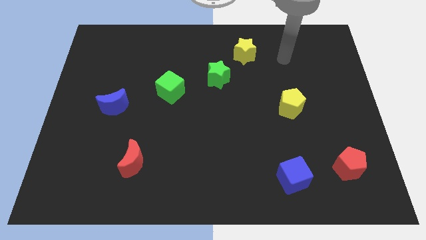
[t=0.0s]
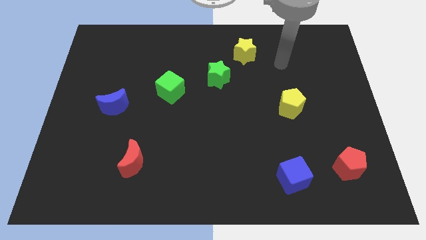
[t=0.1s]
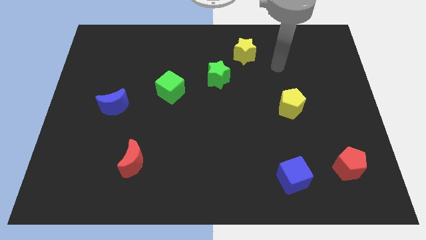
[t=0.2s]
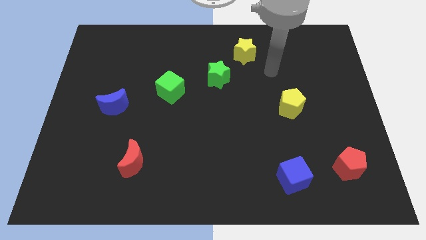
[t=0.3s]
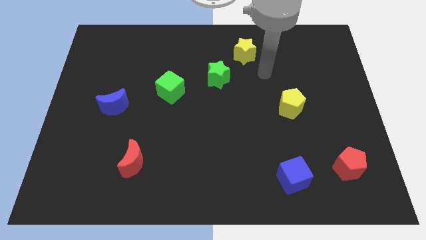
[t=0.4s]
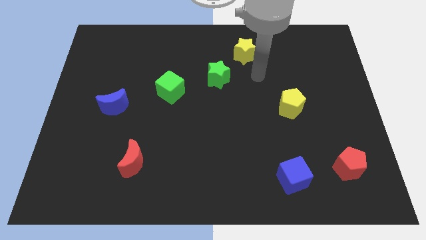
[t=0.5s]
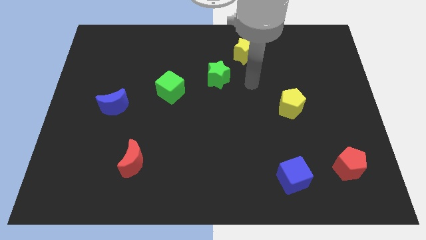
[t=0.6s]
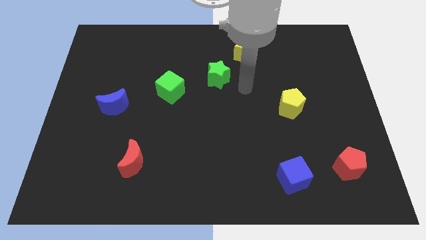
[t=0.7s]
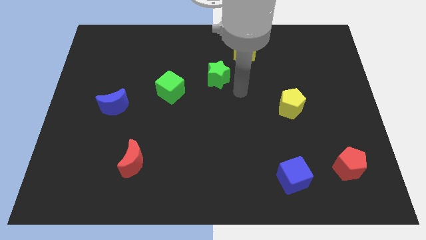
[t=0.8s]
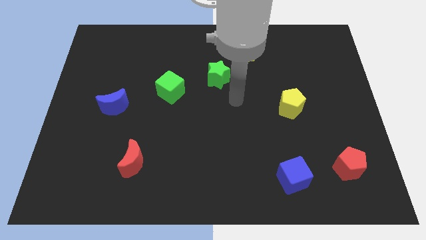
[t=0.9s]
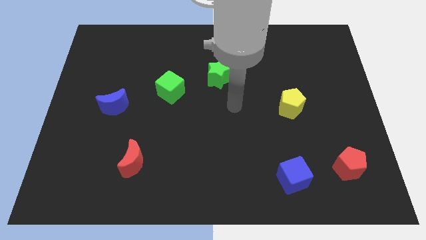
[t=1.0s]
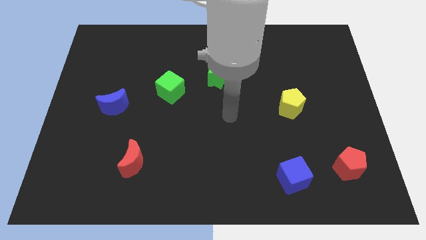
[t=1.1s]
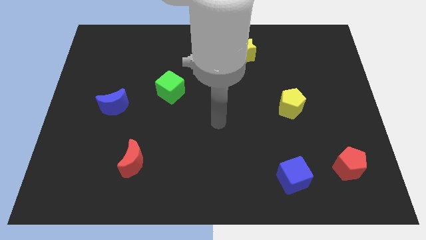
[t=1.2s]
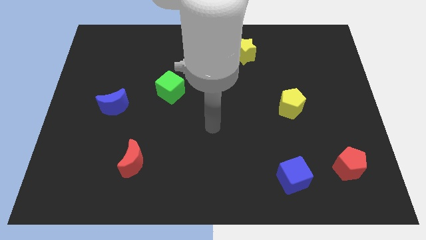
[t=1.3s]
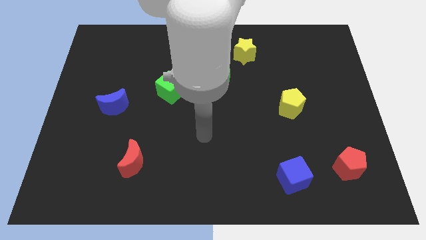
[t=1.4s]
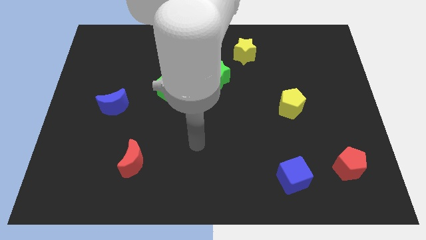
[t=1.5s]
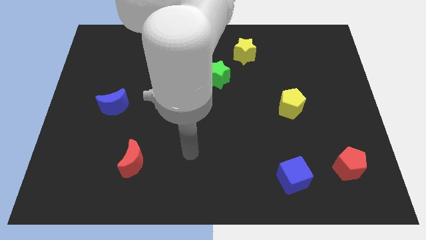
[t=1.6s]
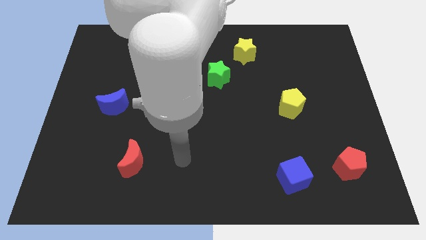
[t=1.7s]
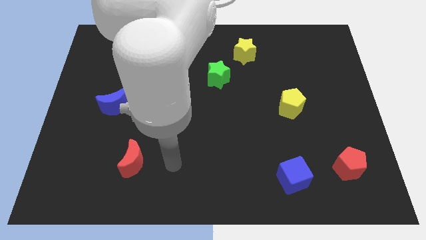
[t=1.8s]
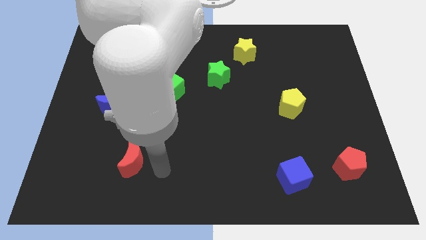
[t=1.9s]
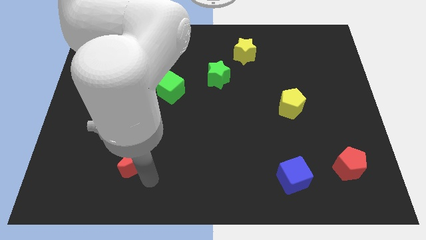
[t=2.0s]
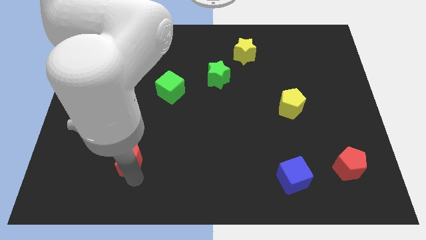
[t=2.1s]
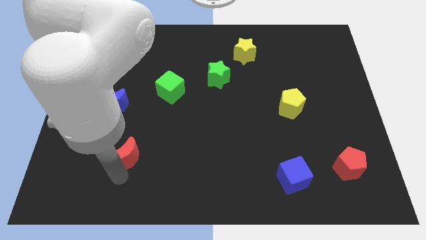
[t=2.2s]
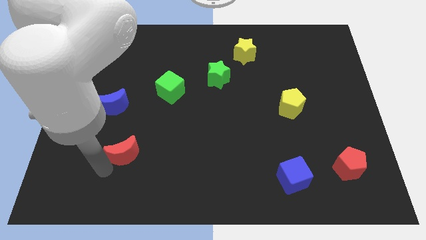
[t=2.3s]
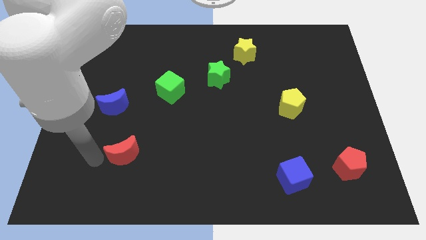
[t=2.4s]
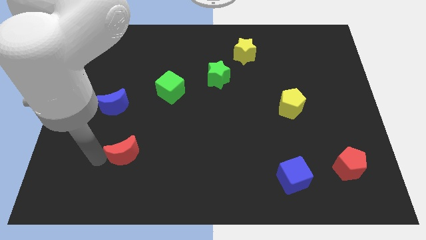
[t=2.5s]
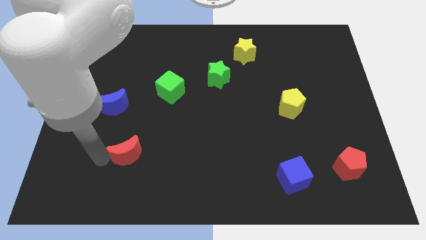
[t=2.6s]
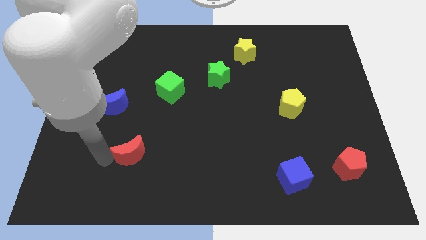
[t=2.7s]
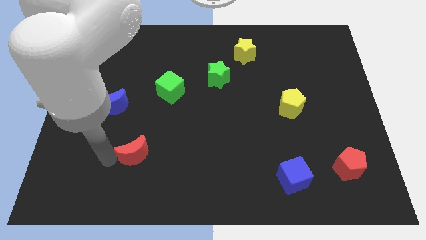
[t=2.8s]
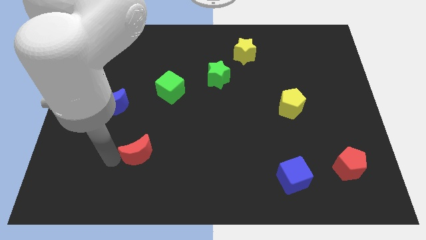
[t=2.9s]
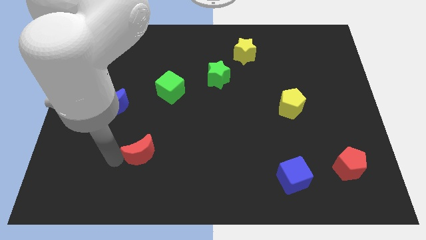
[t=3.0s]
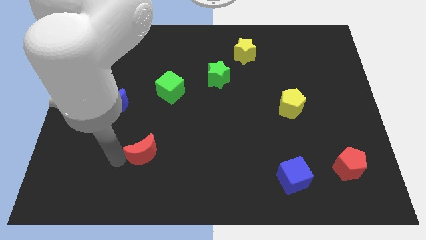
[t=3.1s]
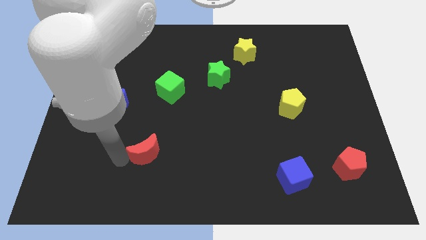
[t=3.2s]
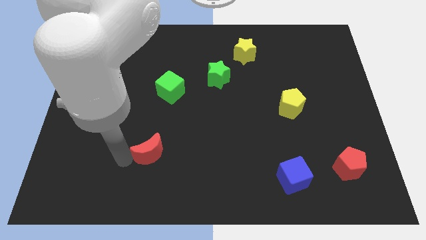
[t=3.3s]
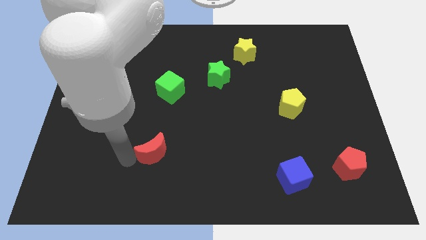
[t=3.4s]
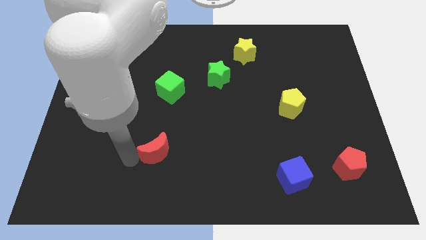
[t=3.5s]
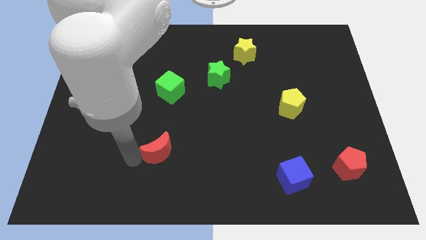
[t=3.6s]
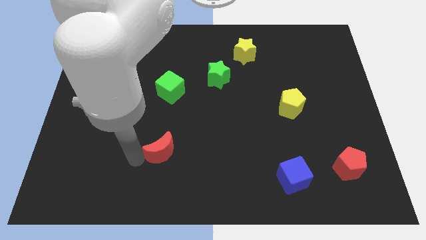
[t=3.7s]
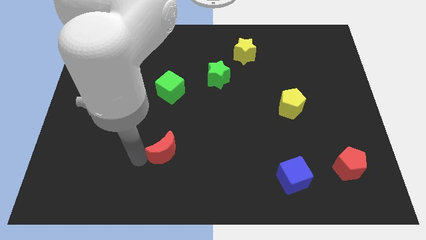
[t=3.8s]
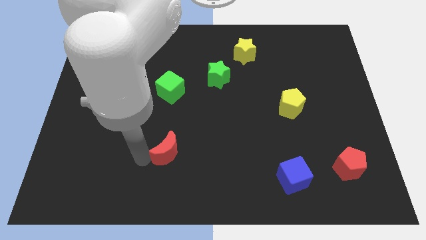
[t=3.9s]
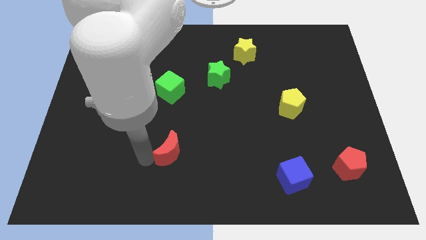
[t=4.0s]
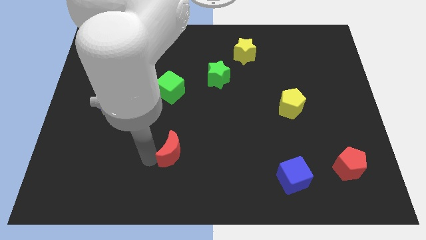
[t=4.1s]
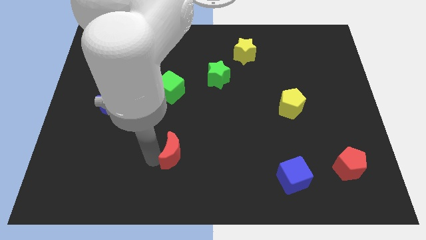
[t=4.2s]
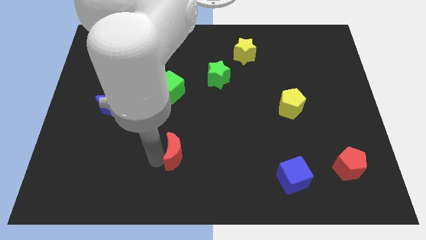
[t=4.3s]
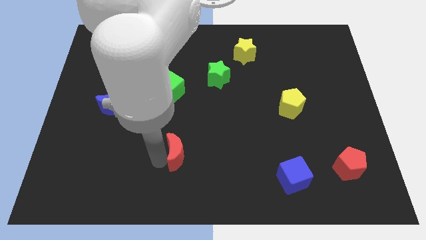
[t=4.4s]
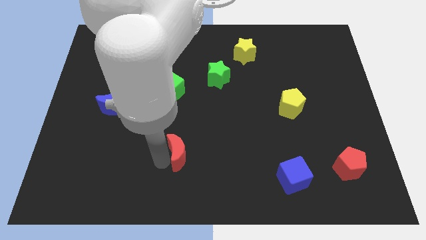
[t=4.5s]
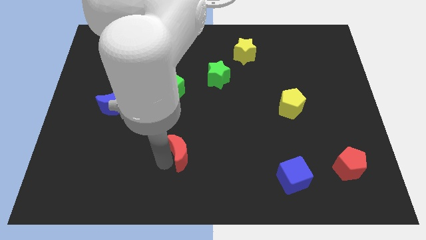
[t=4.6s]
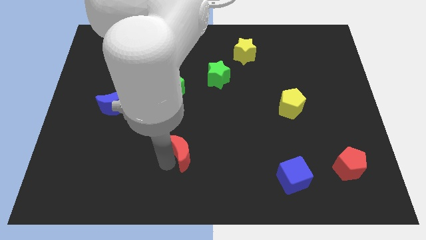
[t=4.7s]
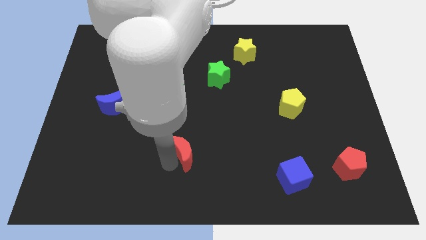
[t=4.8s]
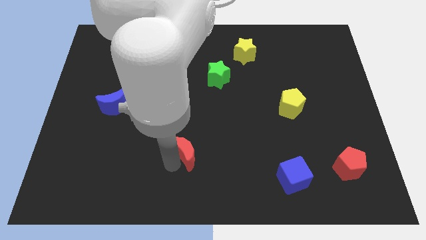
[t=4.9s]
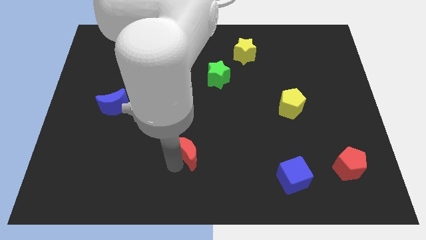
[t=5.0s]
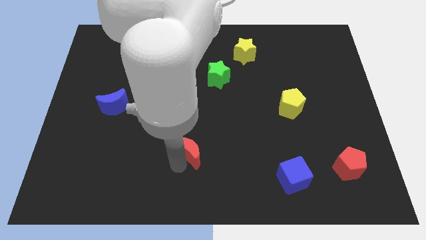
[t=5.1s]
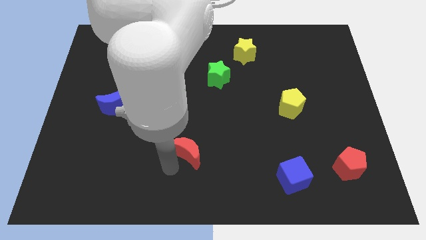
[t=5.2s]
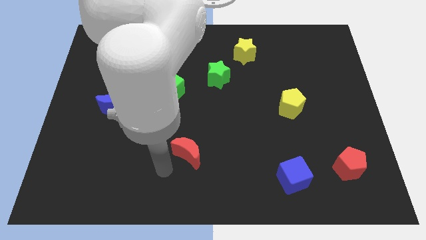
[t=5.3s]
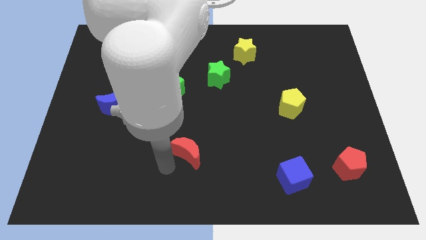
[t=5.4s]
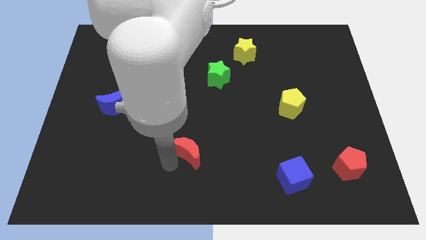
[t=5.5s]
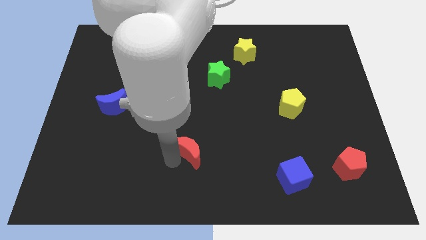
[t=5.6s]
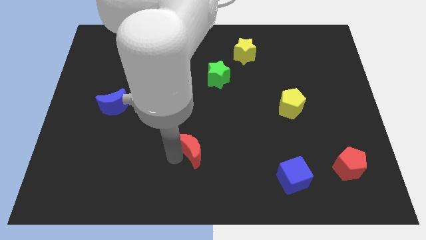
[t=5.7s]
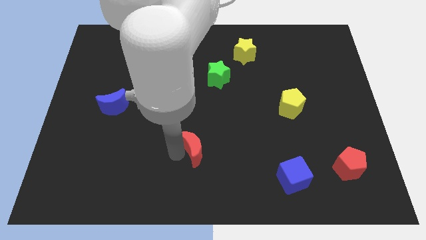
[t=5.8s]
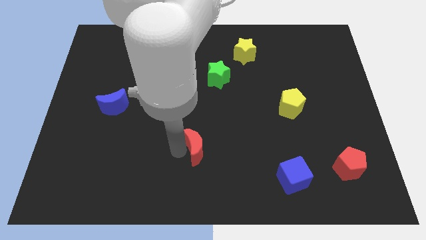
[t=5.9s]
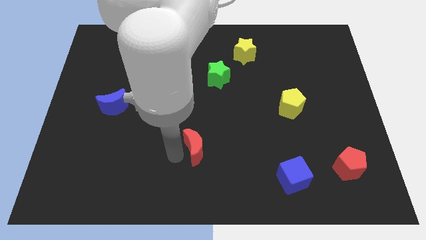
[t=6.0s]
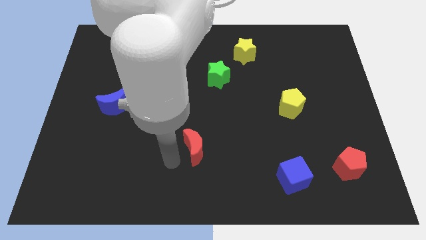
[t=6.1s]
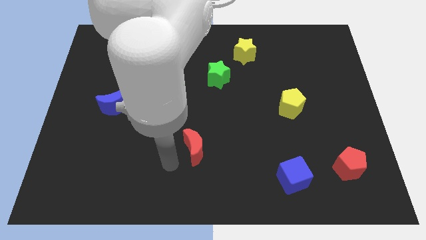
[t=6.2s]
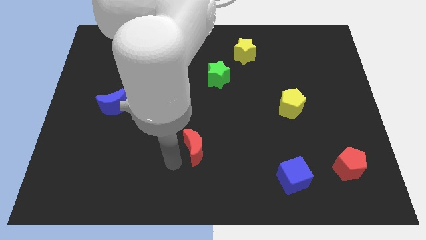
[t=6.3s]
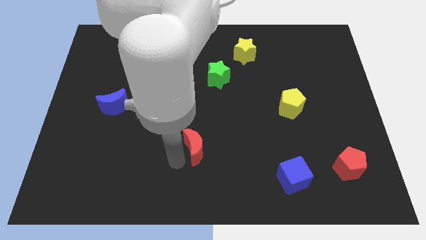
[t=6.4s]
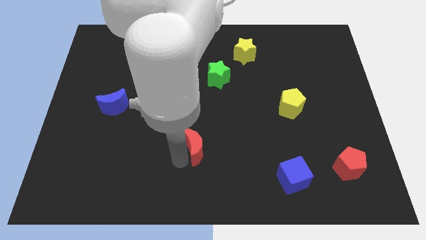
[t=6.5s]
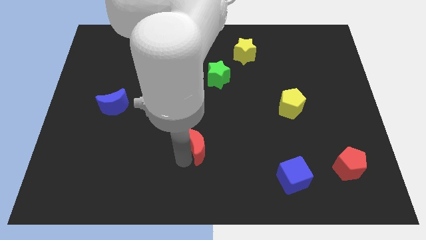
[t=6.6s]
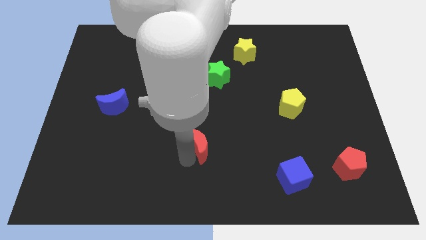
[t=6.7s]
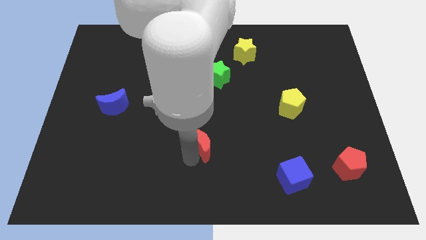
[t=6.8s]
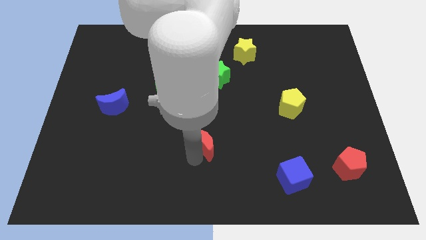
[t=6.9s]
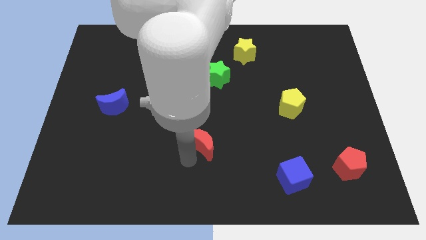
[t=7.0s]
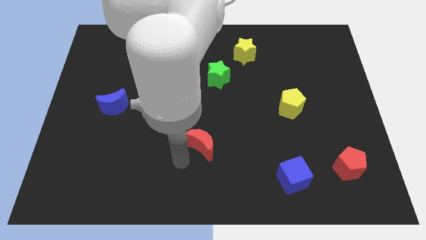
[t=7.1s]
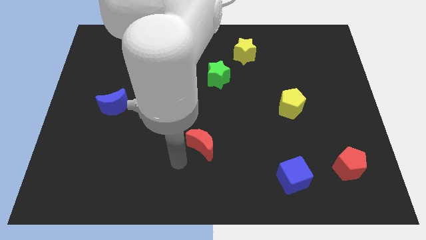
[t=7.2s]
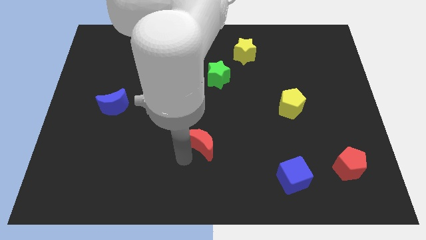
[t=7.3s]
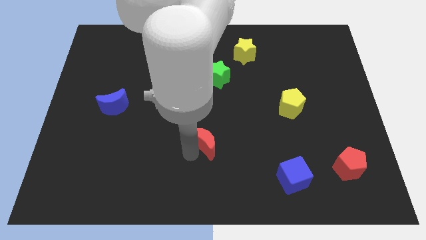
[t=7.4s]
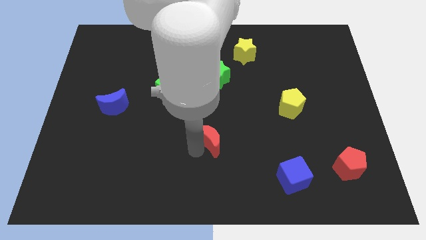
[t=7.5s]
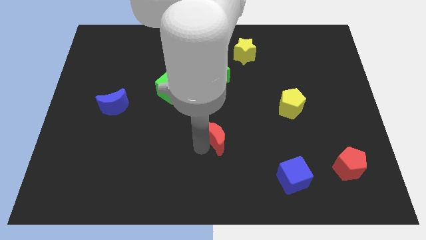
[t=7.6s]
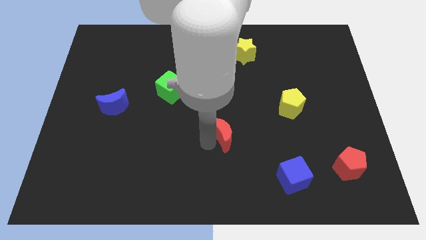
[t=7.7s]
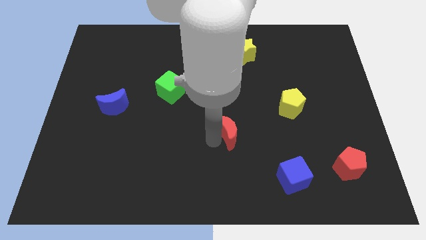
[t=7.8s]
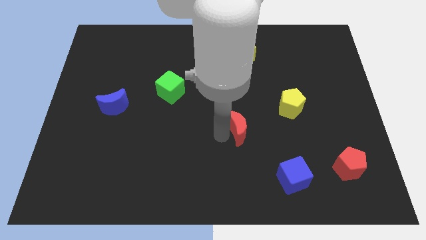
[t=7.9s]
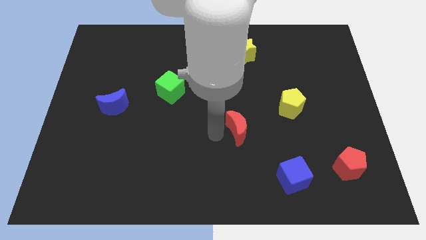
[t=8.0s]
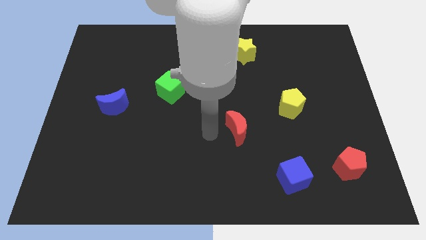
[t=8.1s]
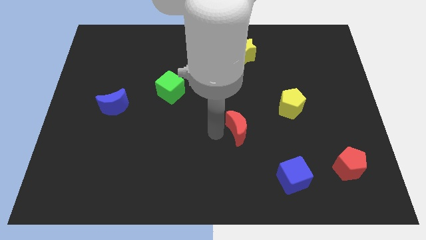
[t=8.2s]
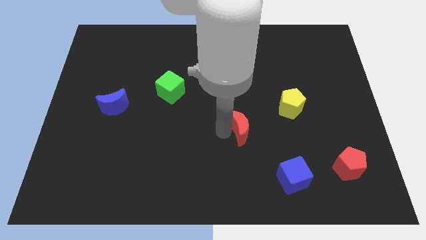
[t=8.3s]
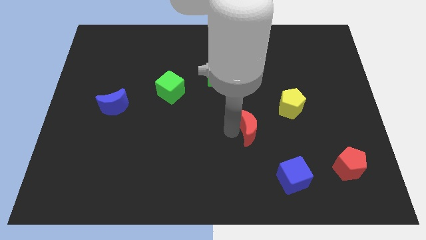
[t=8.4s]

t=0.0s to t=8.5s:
move the red moon to the bottom left side of the yellow pentagon
